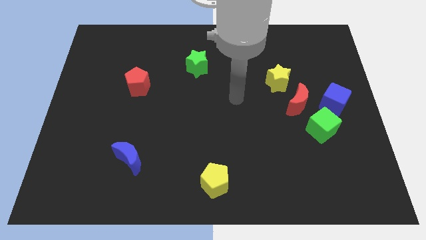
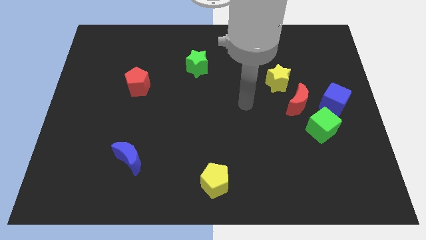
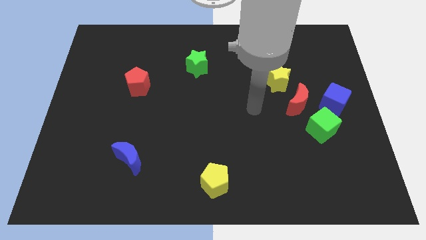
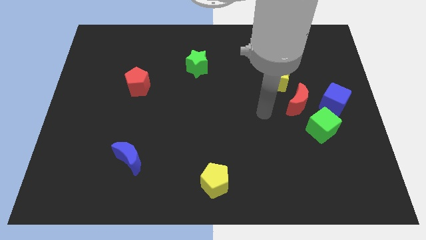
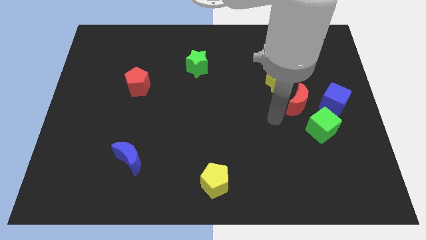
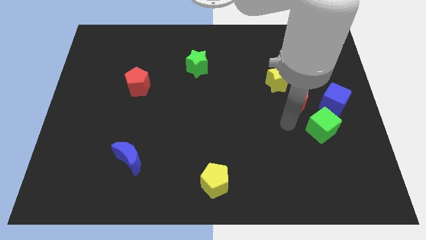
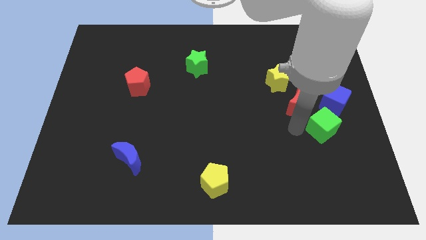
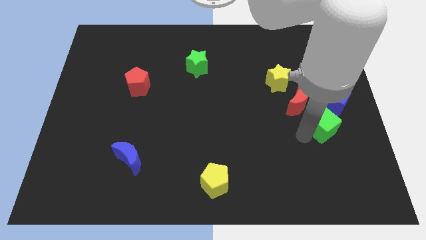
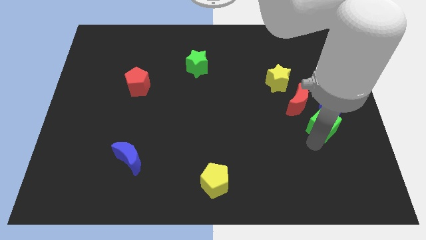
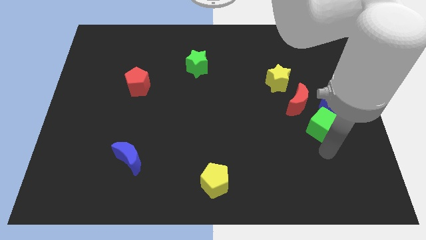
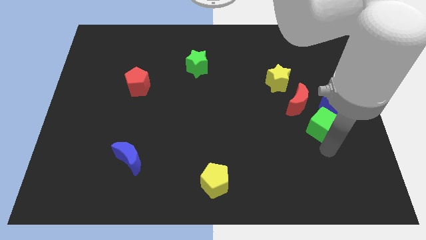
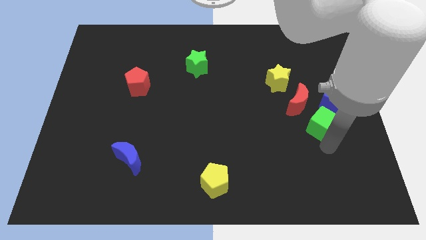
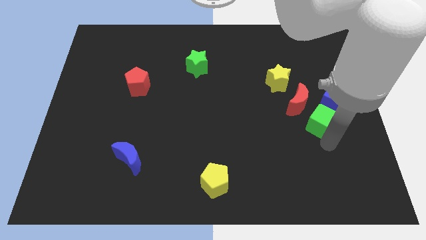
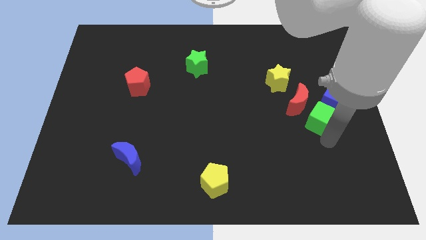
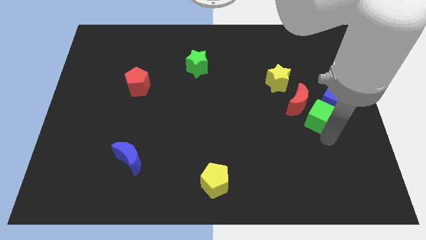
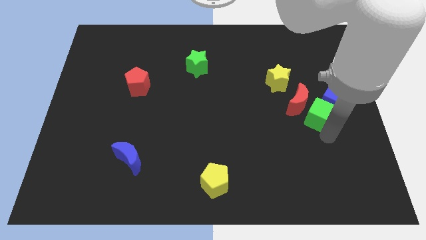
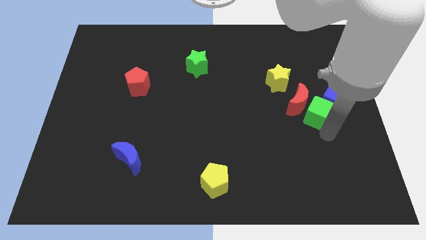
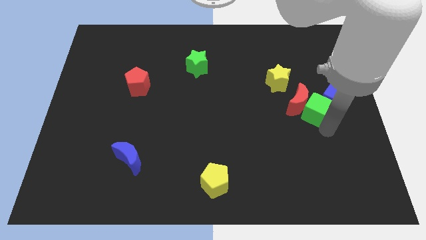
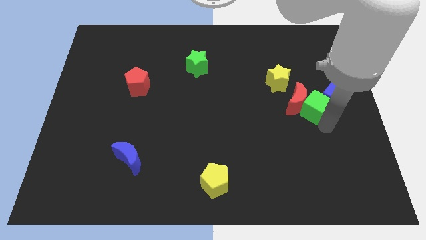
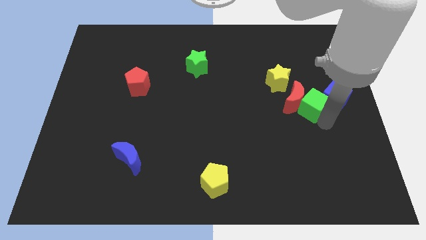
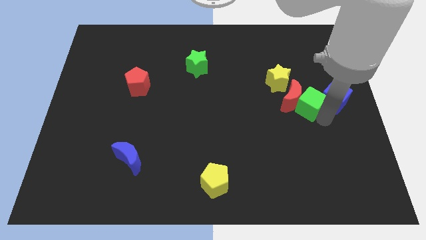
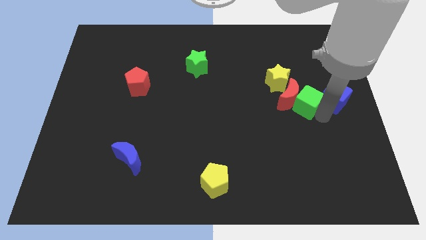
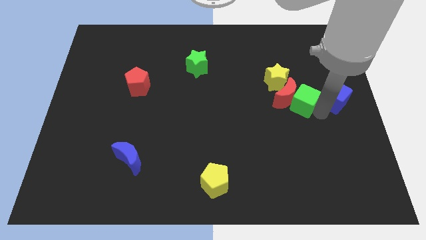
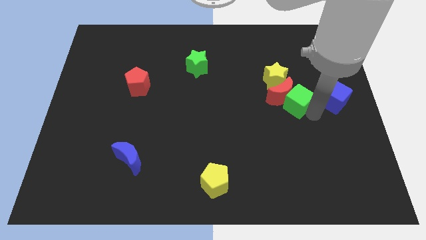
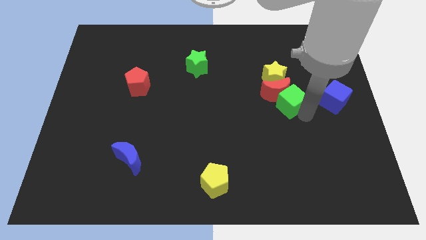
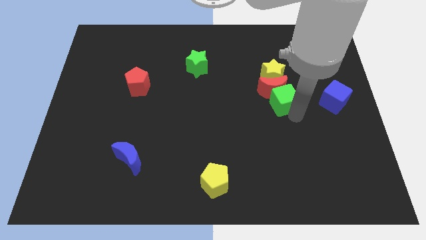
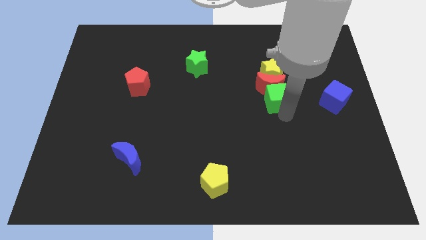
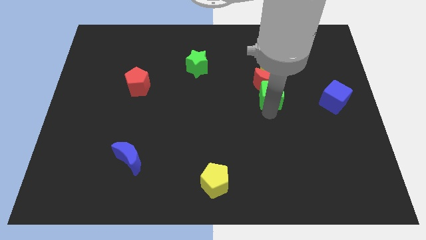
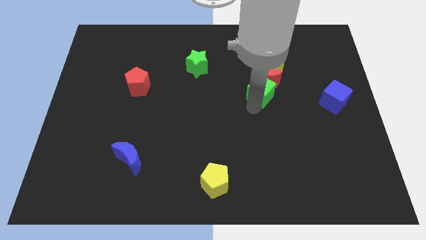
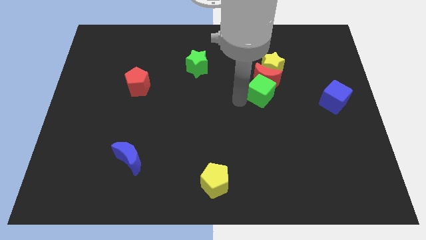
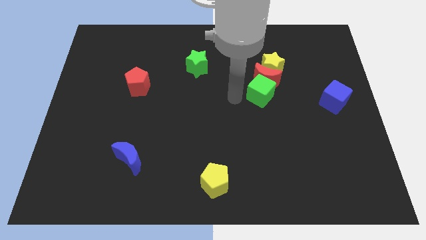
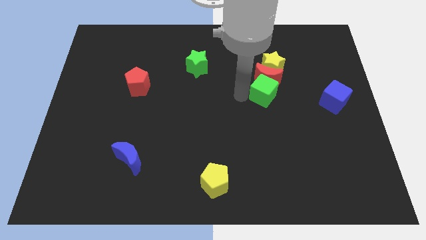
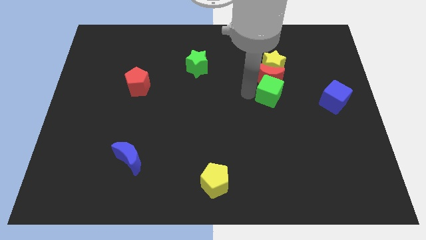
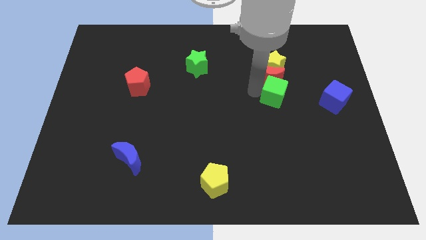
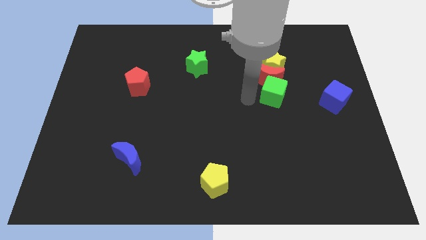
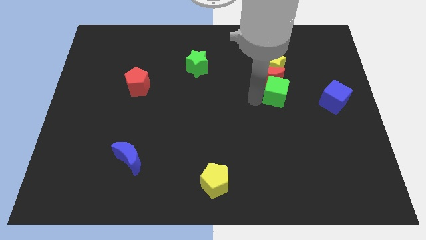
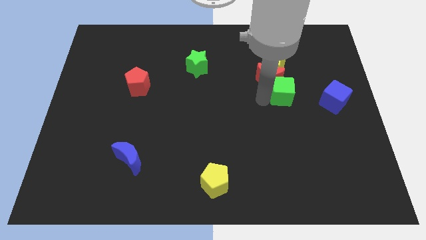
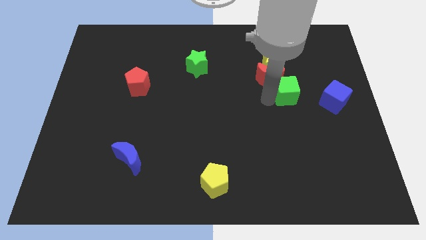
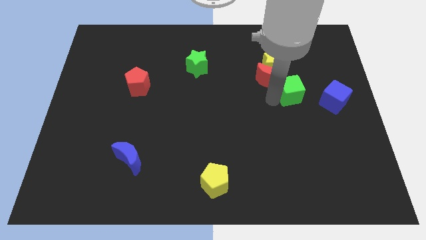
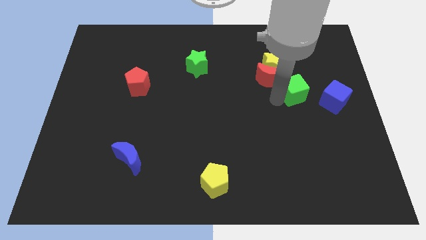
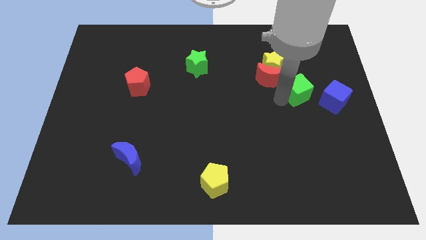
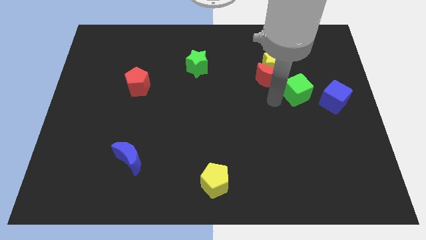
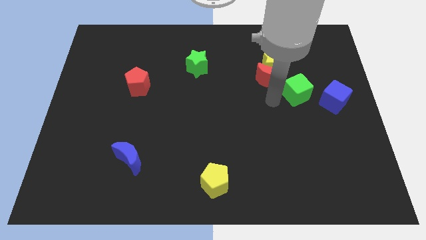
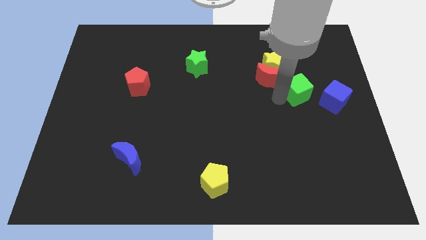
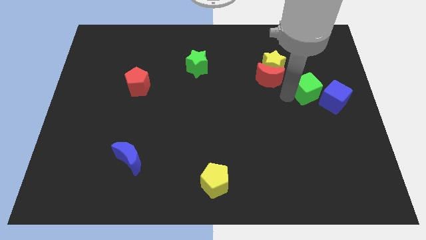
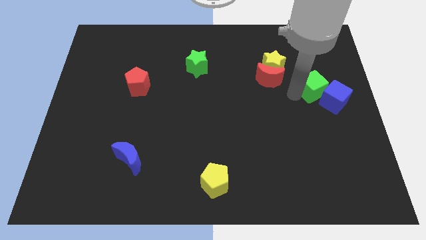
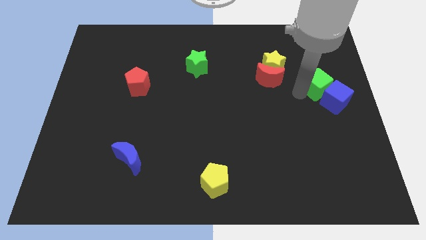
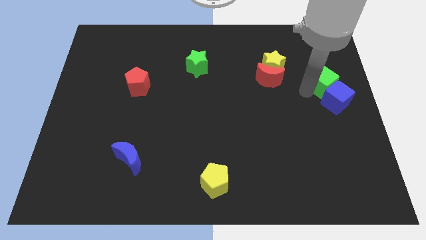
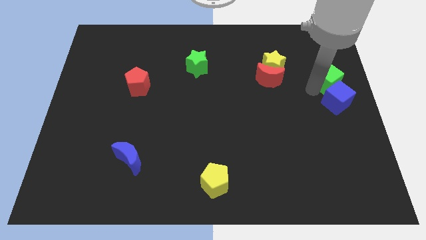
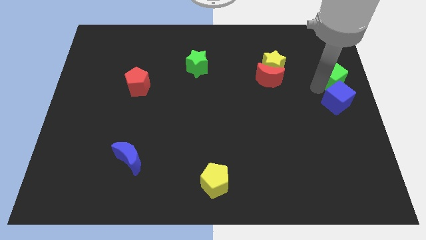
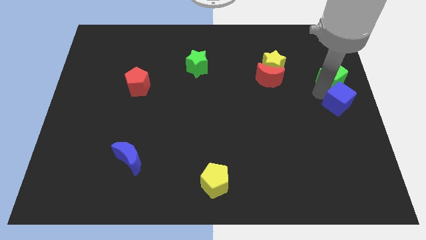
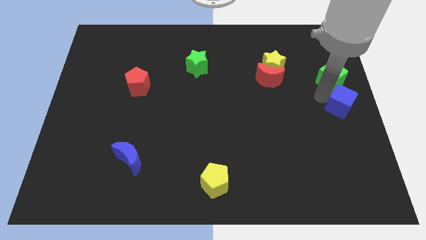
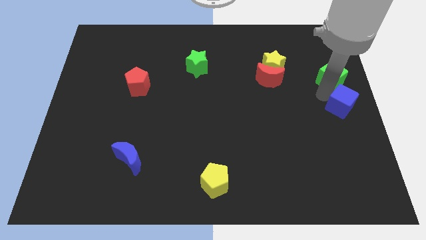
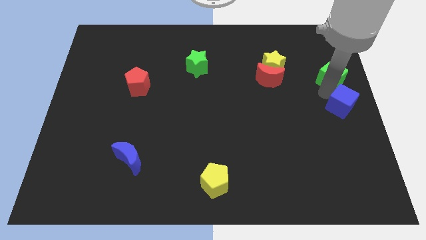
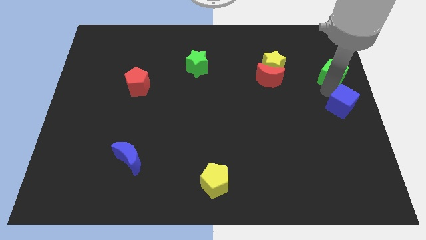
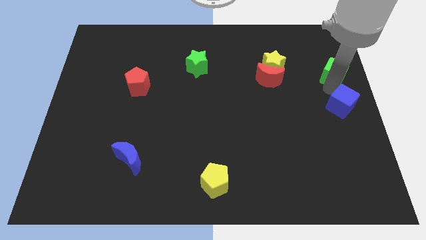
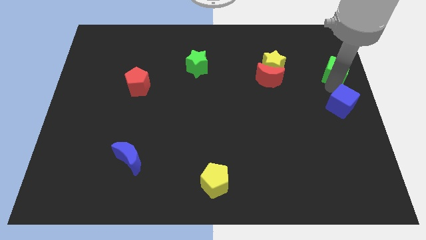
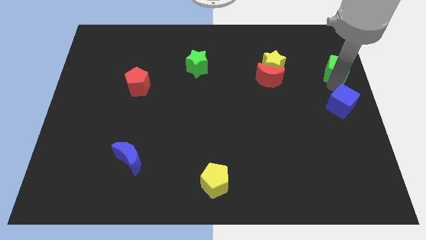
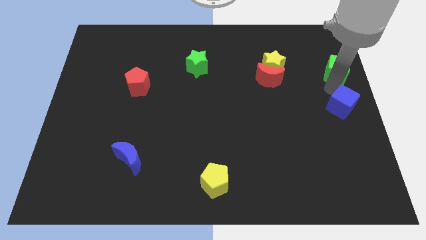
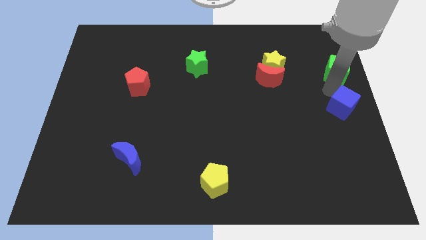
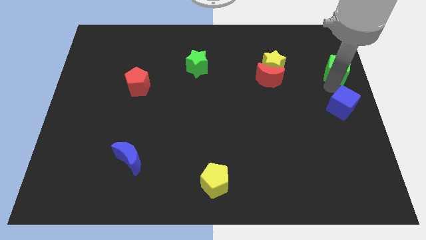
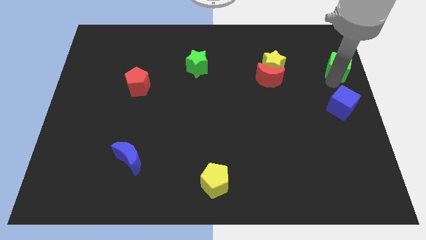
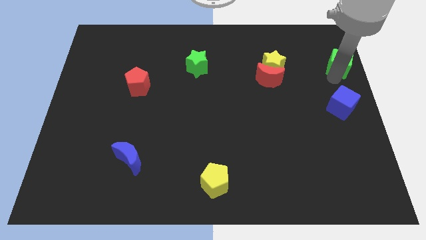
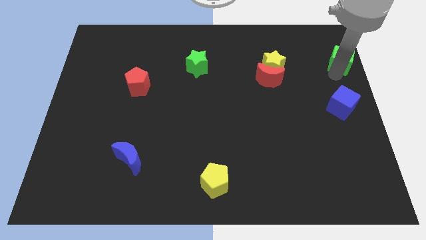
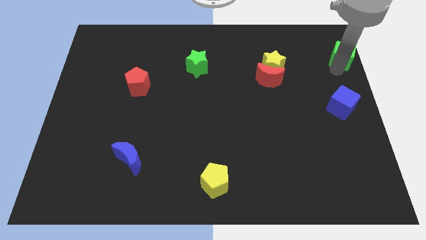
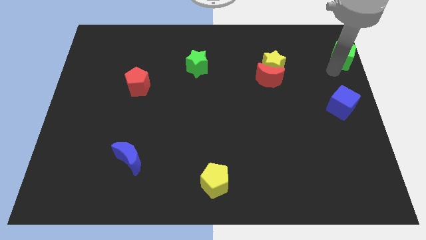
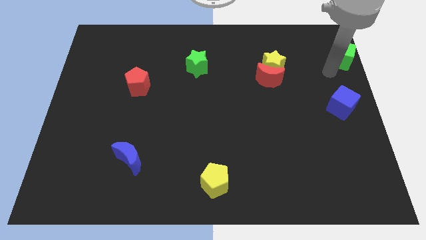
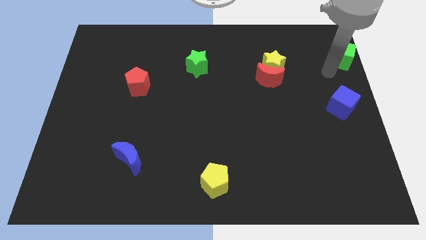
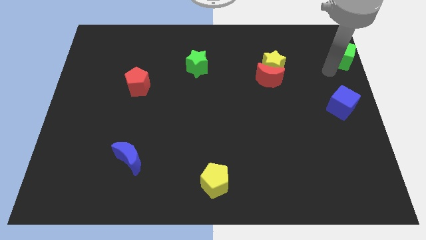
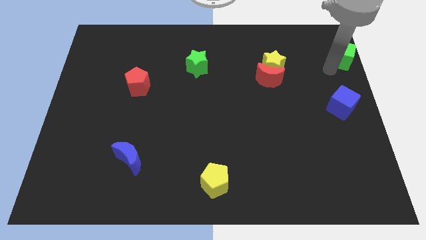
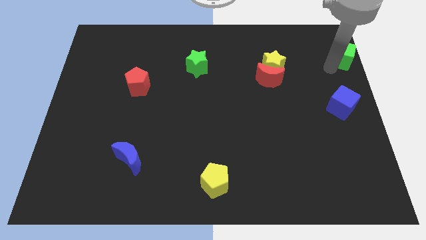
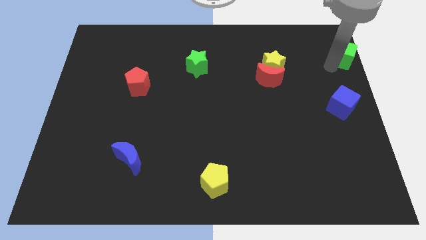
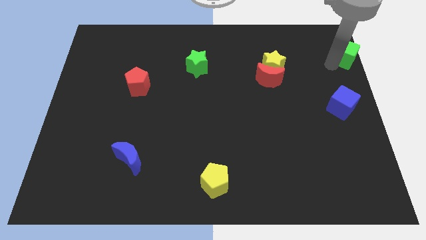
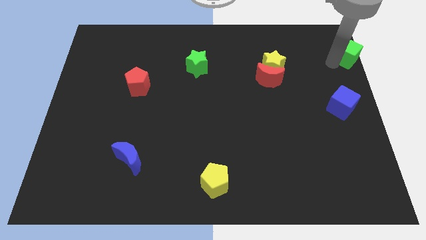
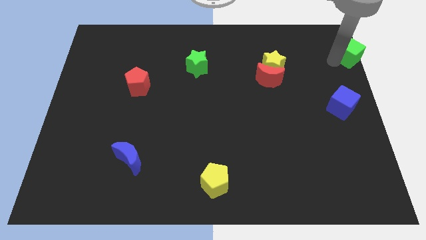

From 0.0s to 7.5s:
slide the green cube to the top right corner
